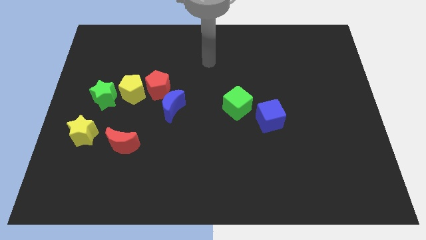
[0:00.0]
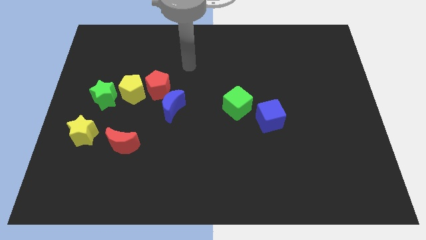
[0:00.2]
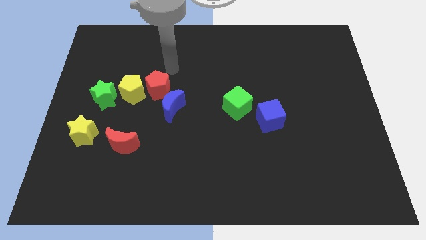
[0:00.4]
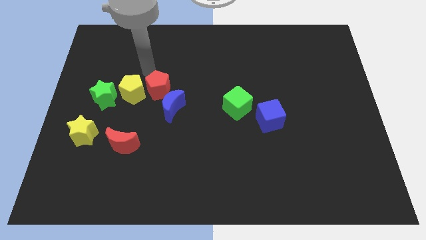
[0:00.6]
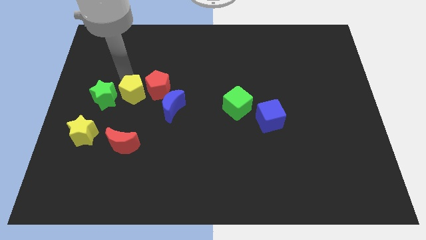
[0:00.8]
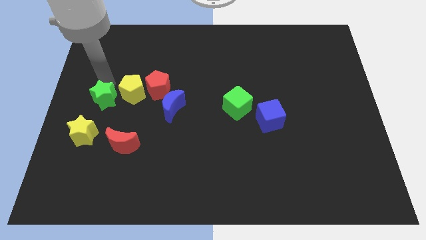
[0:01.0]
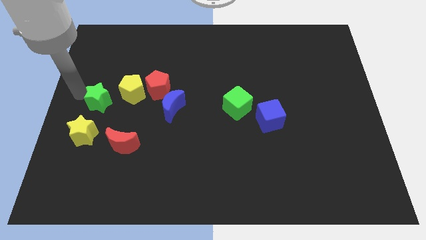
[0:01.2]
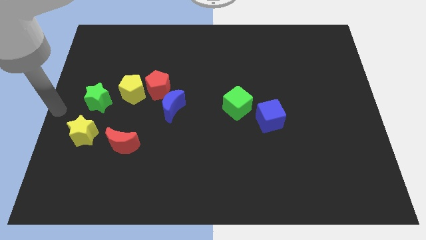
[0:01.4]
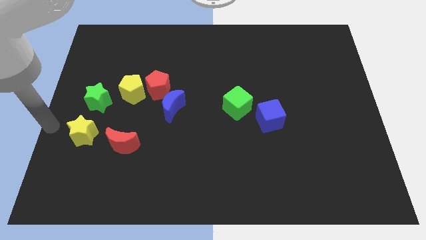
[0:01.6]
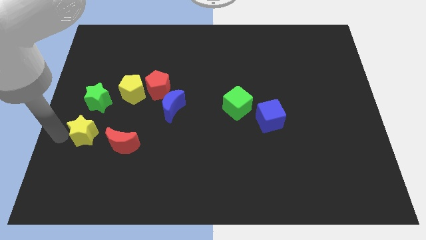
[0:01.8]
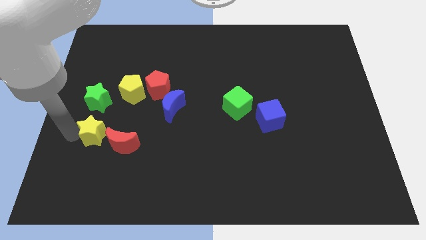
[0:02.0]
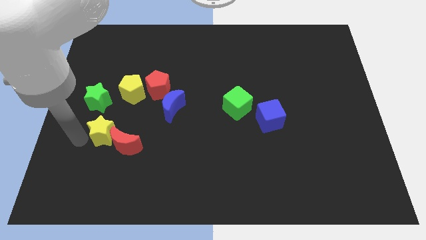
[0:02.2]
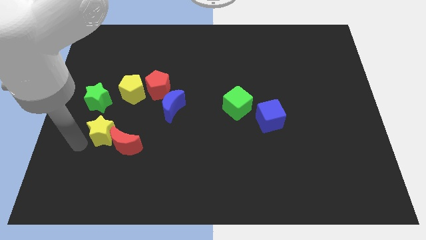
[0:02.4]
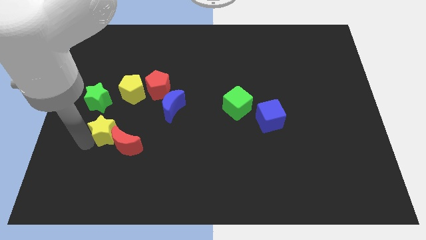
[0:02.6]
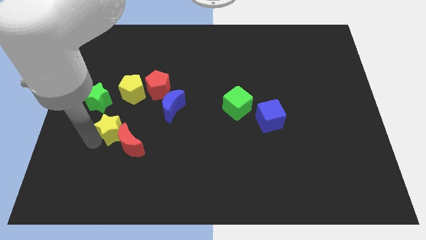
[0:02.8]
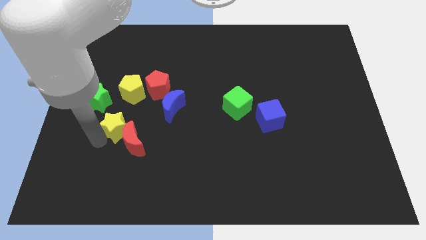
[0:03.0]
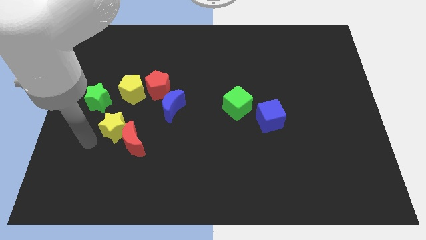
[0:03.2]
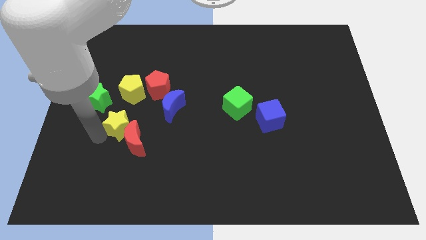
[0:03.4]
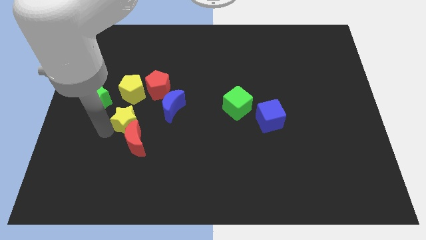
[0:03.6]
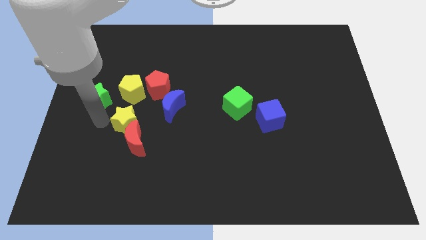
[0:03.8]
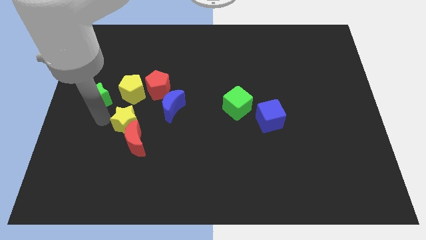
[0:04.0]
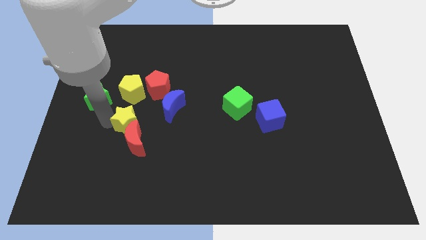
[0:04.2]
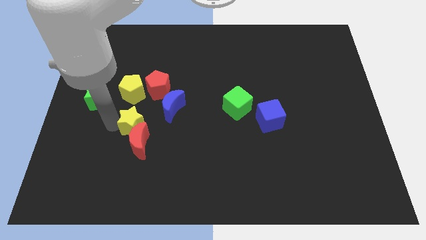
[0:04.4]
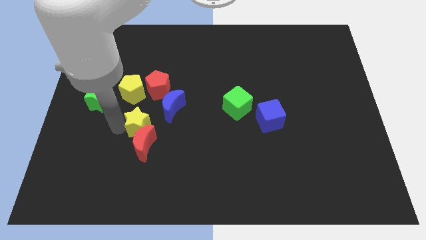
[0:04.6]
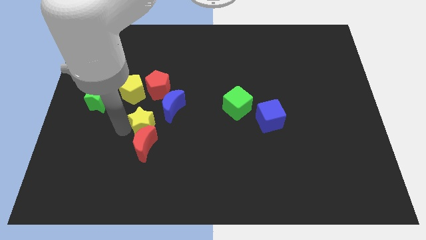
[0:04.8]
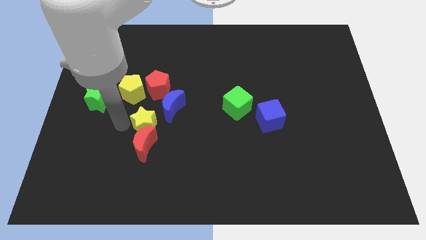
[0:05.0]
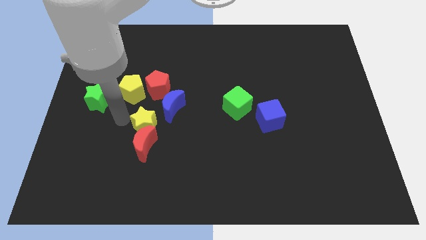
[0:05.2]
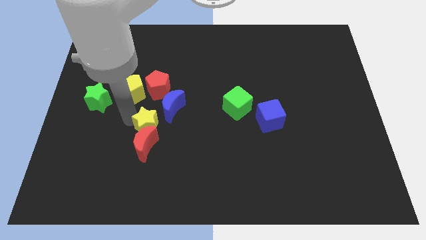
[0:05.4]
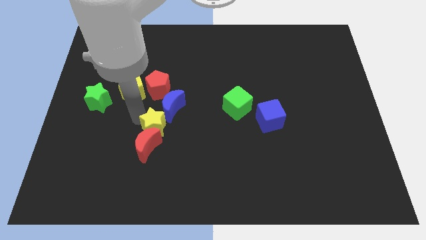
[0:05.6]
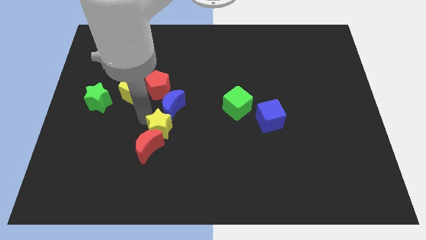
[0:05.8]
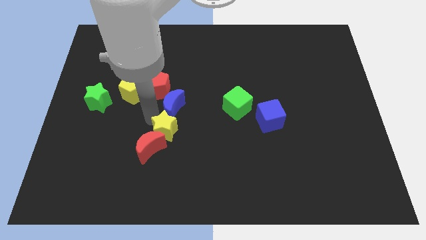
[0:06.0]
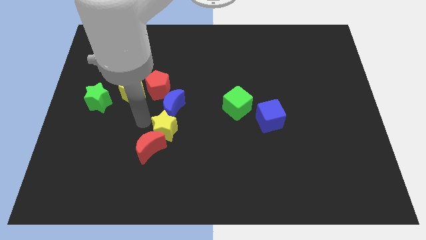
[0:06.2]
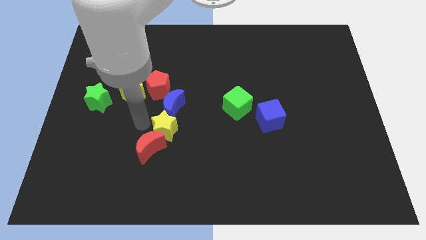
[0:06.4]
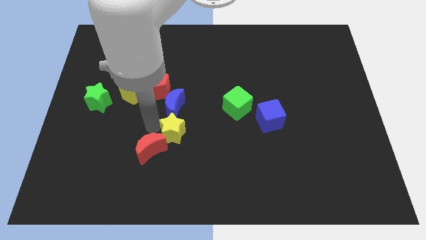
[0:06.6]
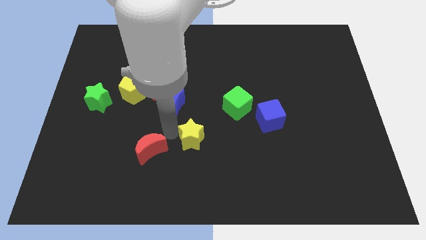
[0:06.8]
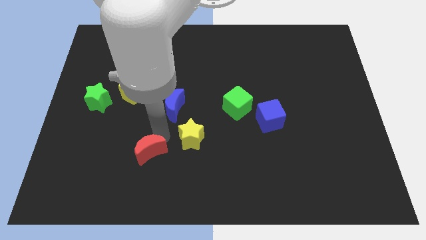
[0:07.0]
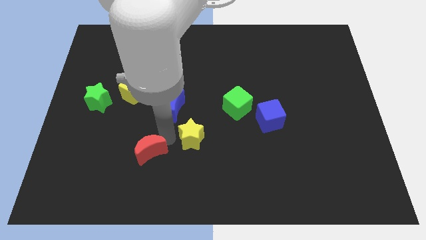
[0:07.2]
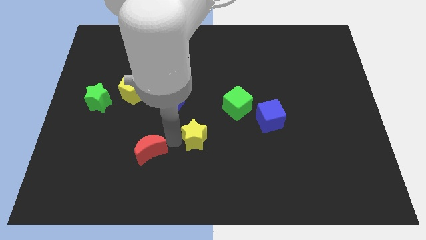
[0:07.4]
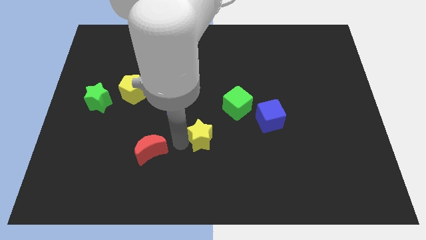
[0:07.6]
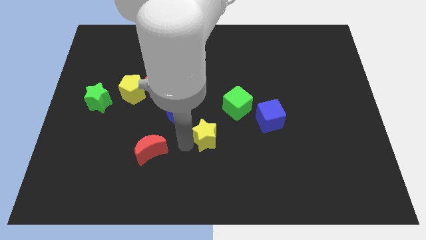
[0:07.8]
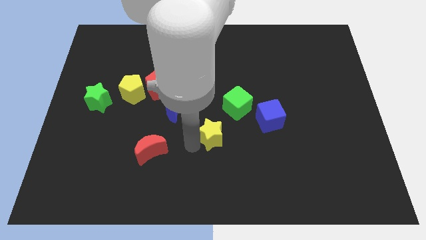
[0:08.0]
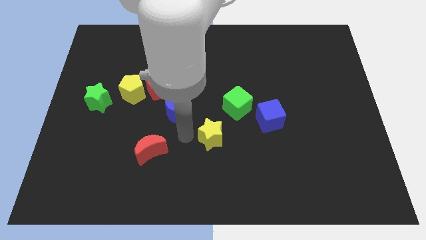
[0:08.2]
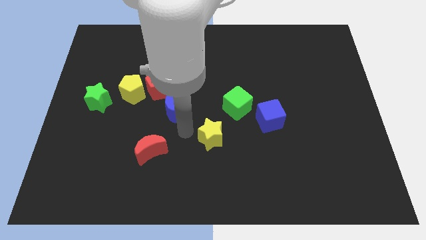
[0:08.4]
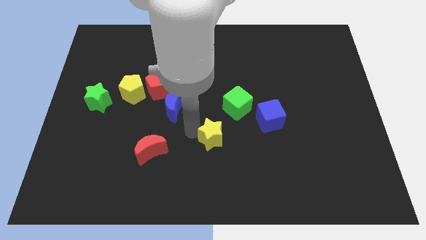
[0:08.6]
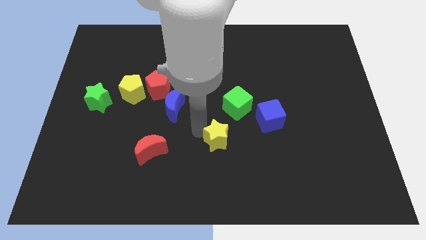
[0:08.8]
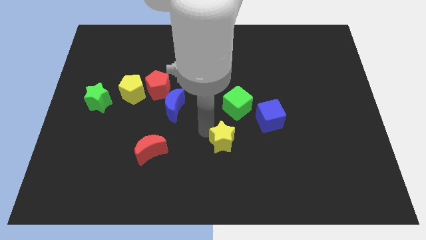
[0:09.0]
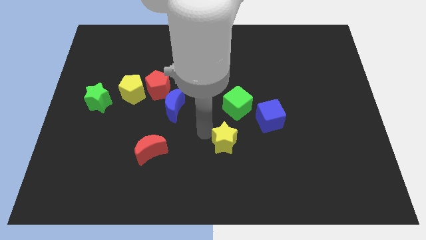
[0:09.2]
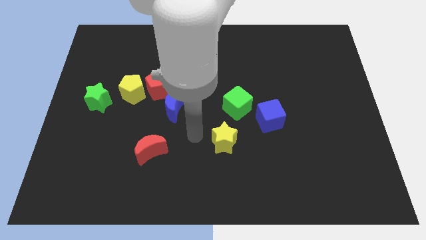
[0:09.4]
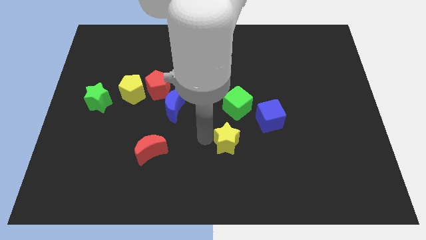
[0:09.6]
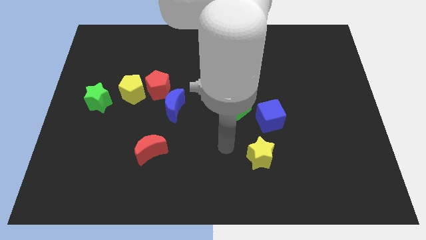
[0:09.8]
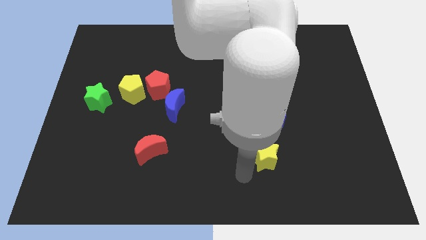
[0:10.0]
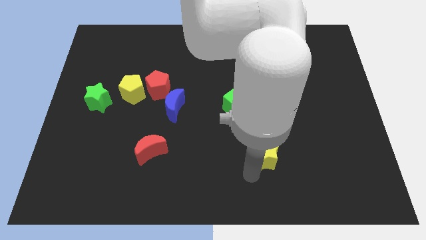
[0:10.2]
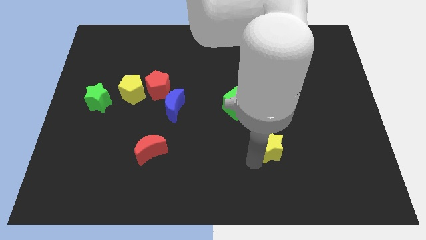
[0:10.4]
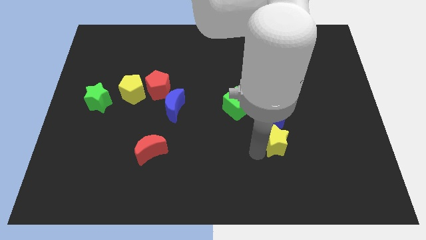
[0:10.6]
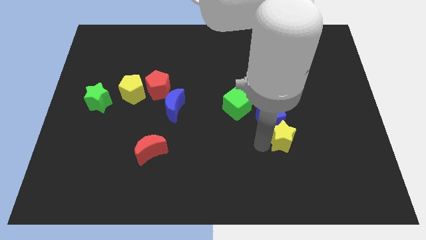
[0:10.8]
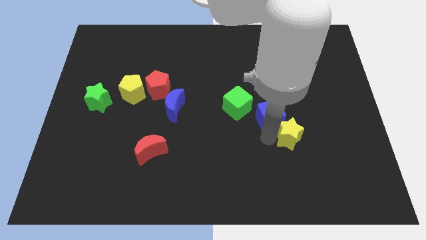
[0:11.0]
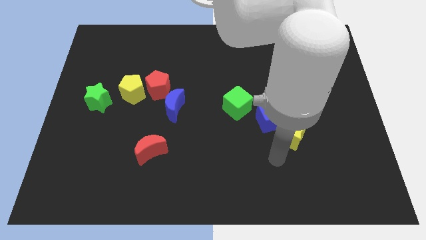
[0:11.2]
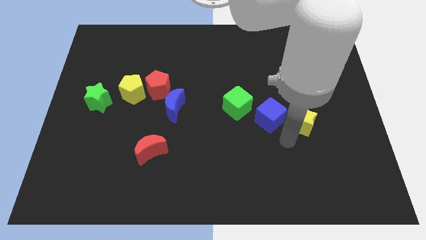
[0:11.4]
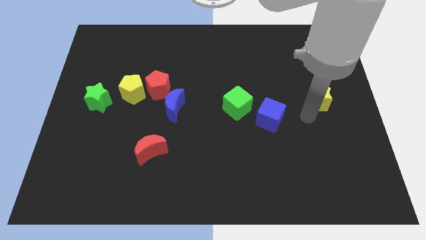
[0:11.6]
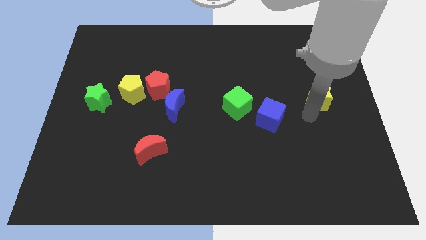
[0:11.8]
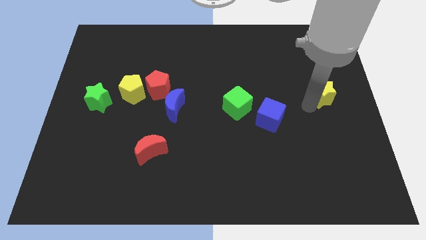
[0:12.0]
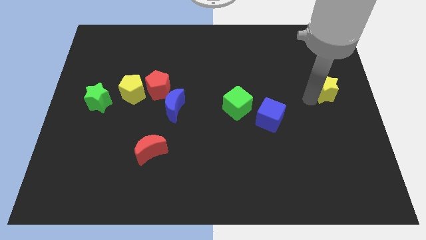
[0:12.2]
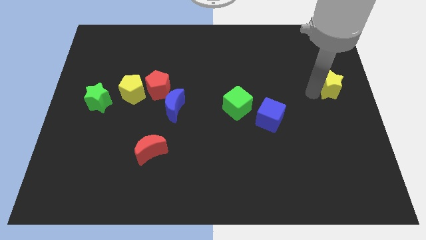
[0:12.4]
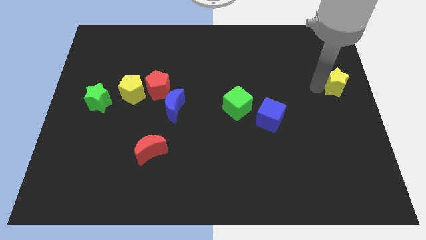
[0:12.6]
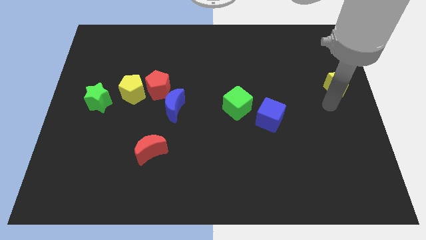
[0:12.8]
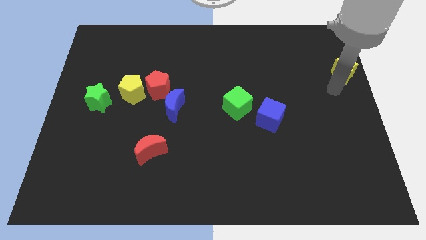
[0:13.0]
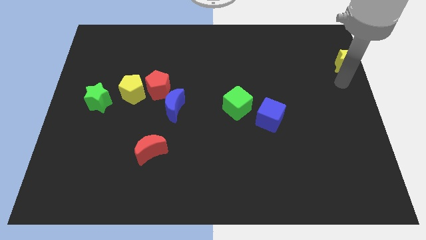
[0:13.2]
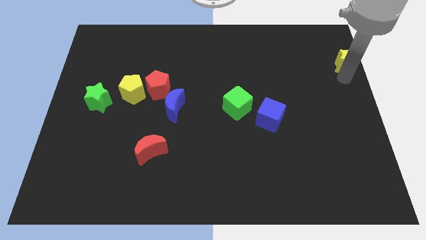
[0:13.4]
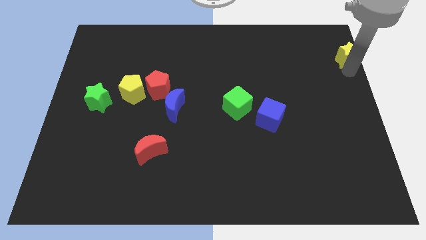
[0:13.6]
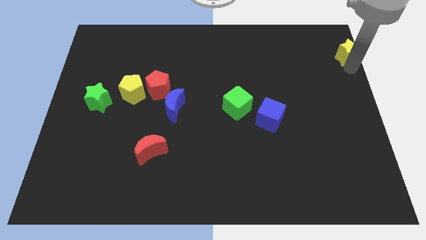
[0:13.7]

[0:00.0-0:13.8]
move the yellow star to the top right corner
